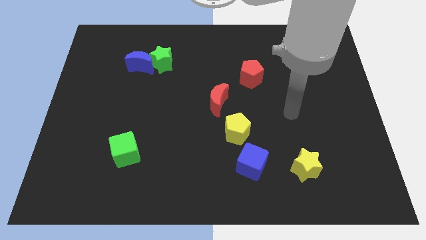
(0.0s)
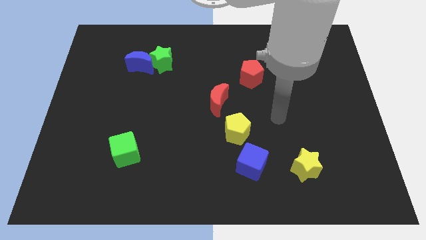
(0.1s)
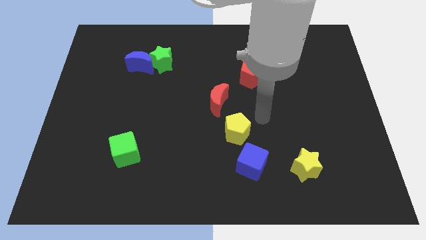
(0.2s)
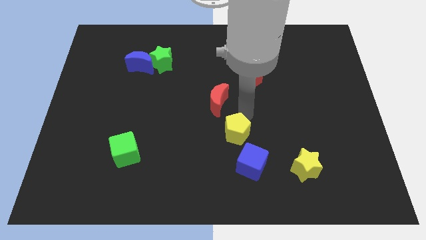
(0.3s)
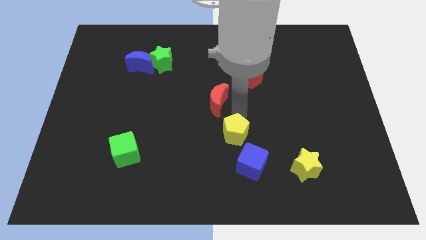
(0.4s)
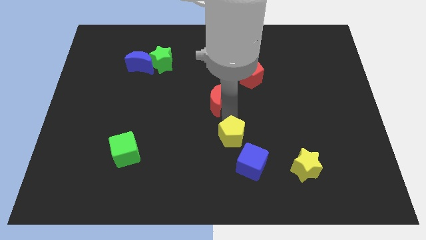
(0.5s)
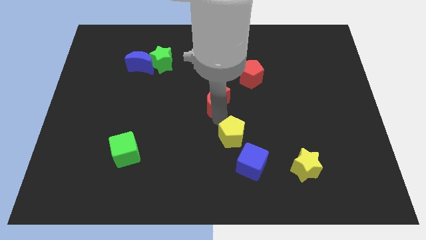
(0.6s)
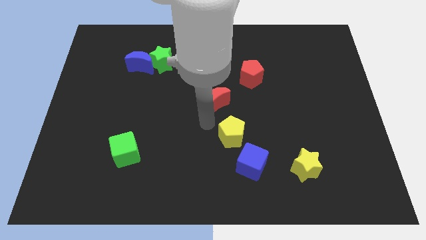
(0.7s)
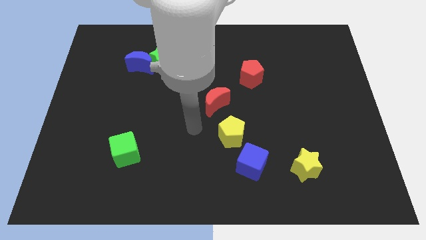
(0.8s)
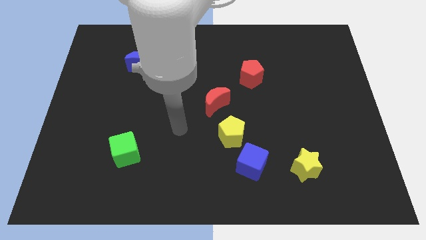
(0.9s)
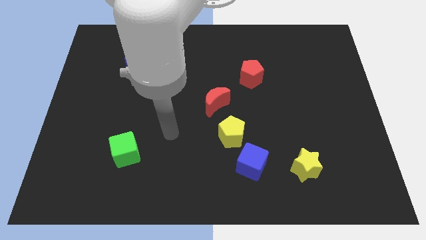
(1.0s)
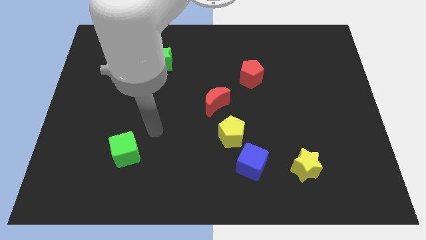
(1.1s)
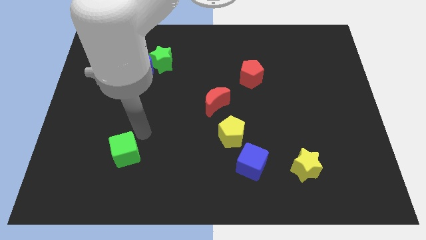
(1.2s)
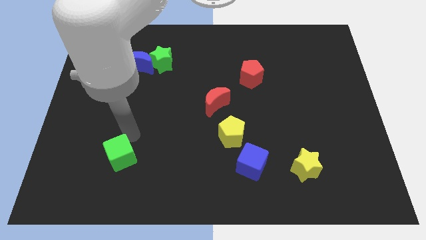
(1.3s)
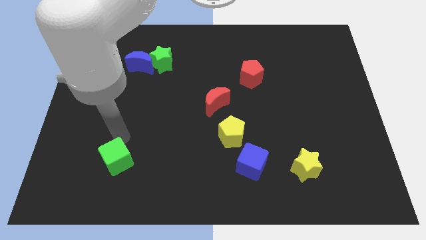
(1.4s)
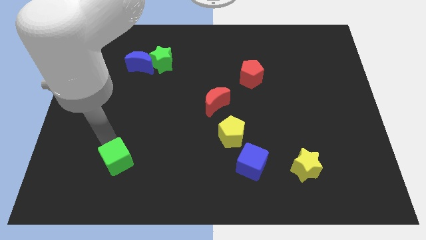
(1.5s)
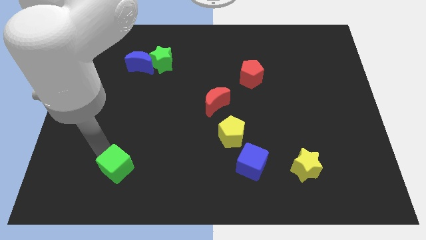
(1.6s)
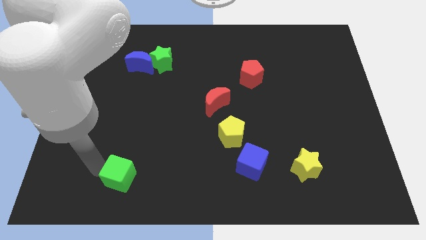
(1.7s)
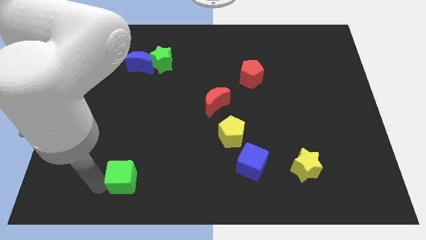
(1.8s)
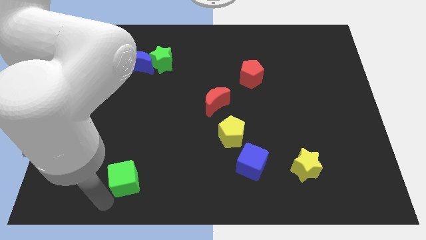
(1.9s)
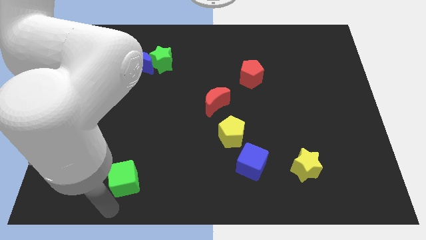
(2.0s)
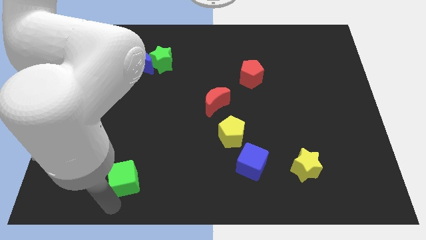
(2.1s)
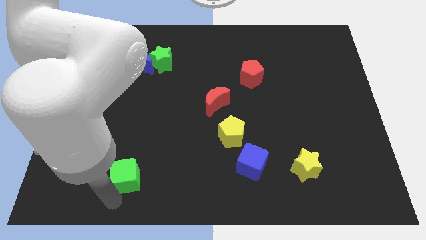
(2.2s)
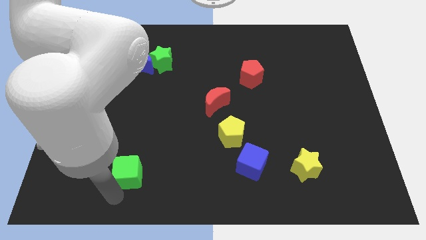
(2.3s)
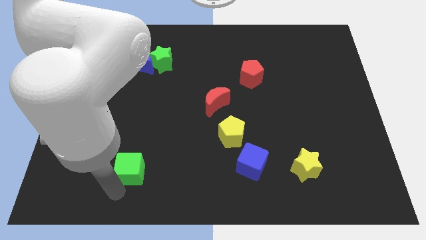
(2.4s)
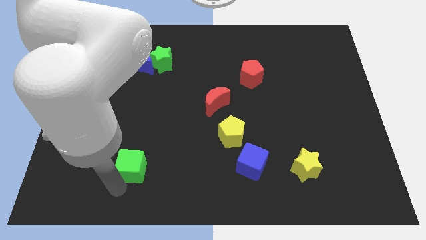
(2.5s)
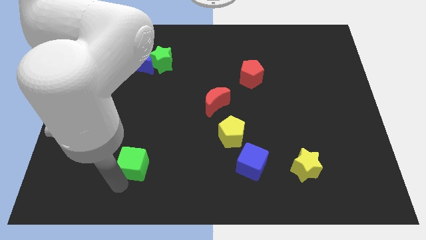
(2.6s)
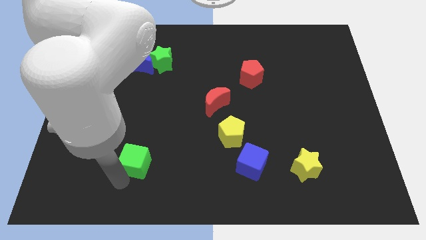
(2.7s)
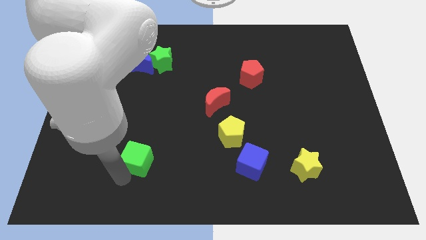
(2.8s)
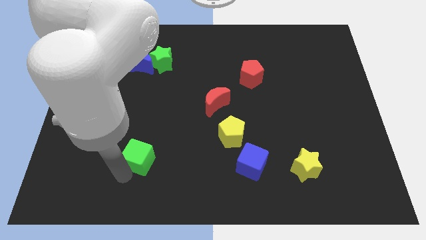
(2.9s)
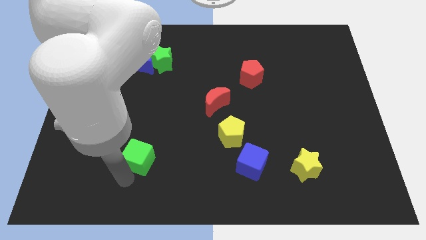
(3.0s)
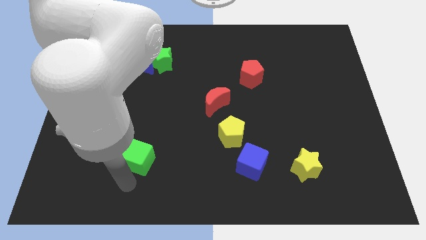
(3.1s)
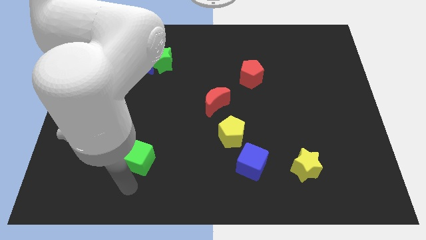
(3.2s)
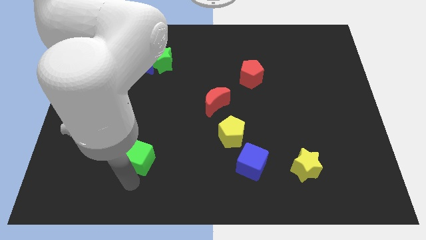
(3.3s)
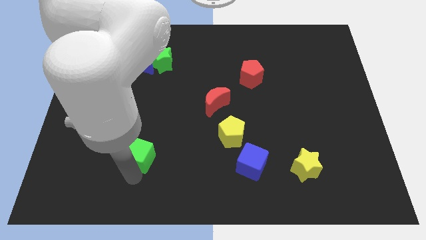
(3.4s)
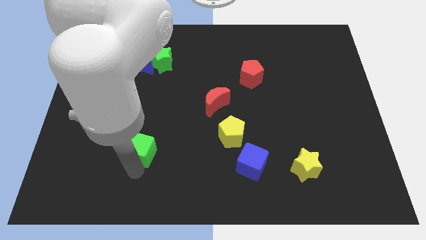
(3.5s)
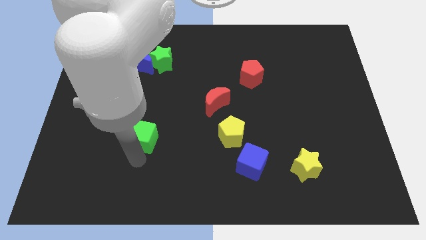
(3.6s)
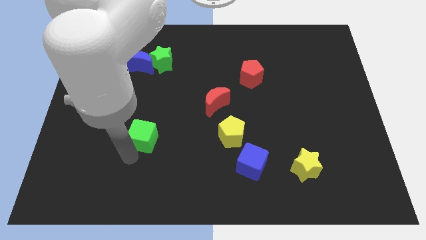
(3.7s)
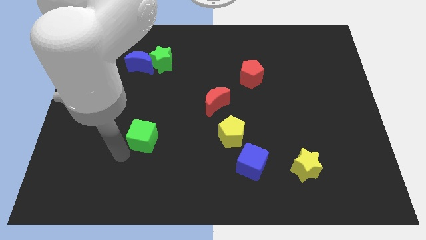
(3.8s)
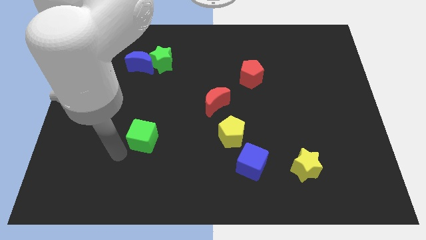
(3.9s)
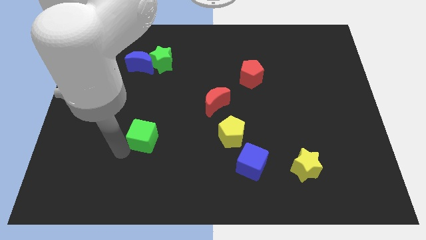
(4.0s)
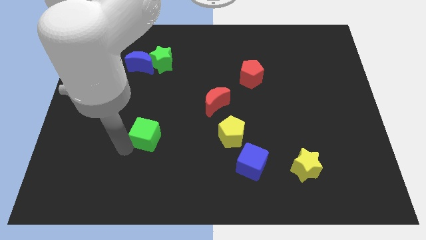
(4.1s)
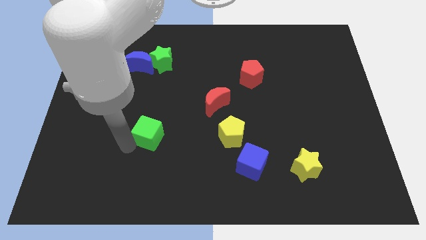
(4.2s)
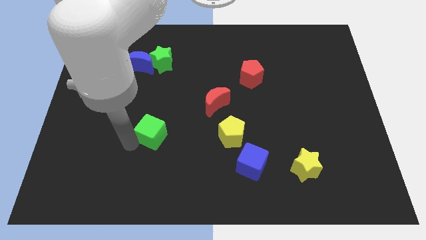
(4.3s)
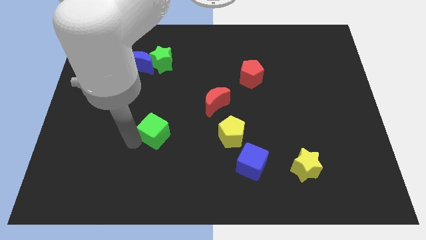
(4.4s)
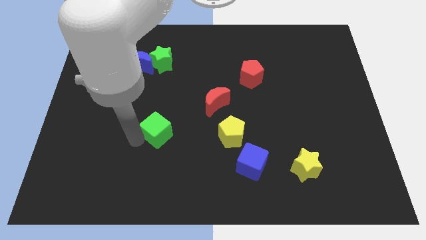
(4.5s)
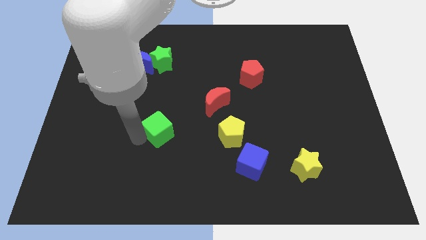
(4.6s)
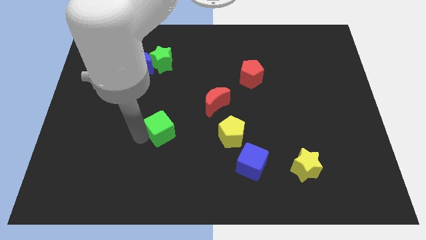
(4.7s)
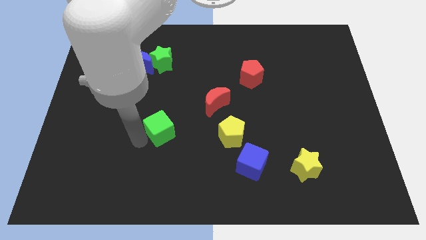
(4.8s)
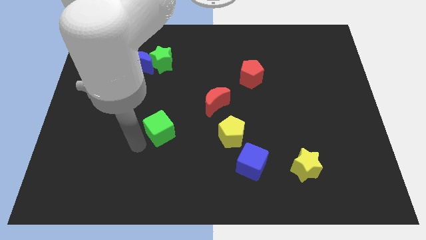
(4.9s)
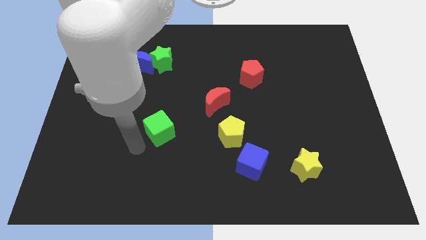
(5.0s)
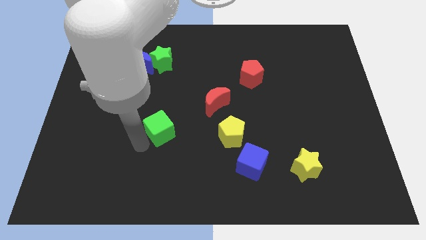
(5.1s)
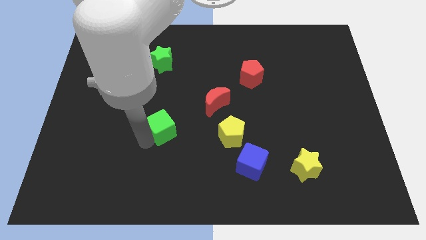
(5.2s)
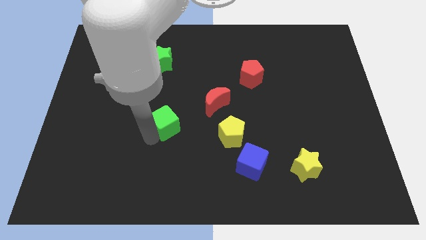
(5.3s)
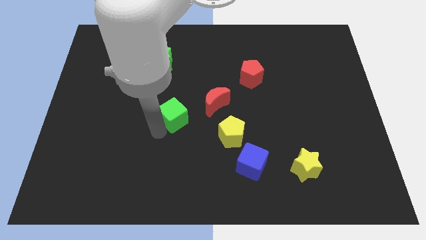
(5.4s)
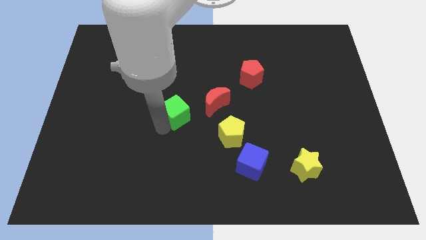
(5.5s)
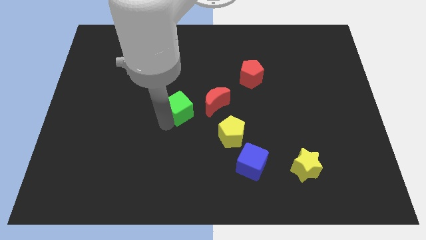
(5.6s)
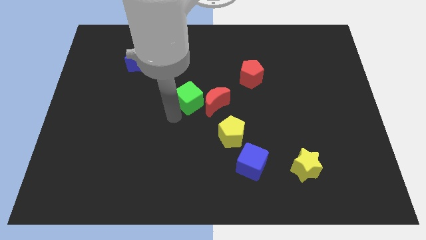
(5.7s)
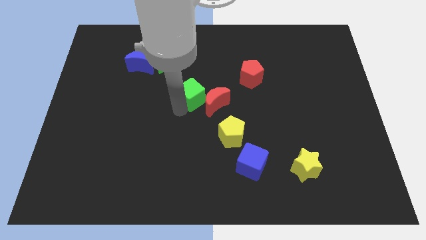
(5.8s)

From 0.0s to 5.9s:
move the green cube upwards and then to the right

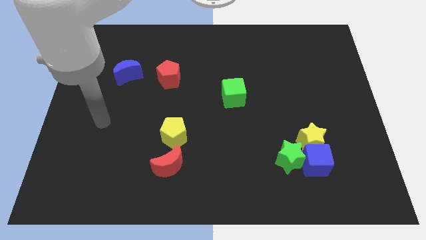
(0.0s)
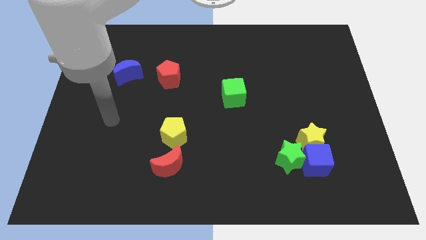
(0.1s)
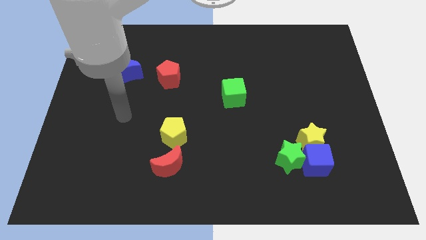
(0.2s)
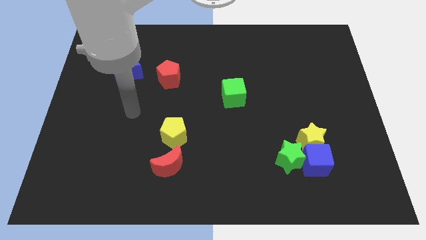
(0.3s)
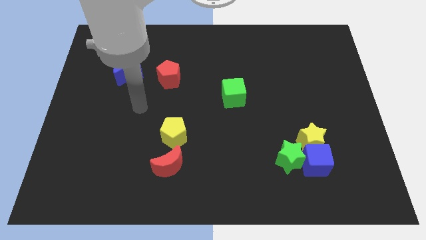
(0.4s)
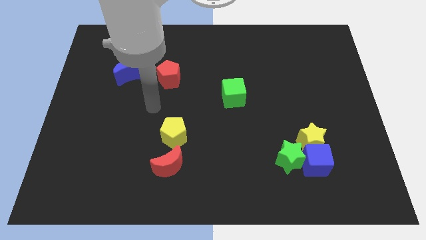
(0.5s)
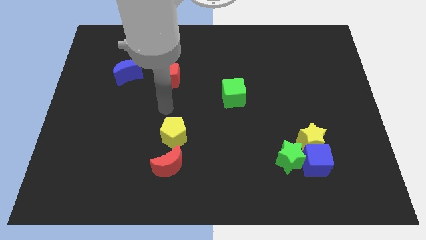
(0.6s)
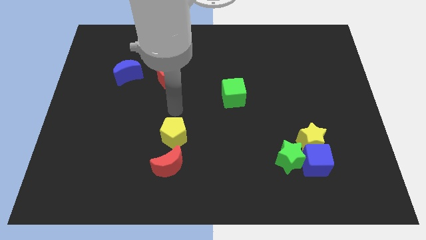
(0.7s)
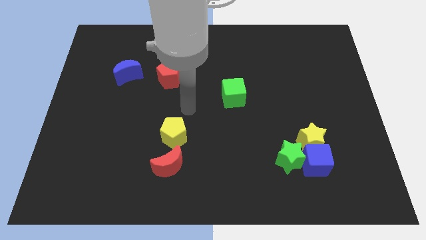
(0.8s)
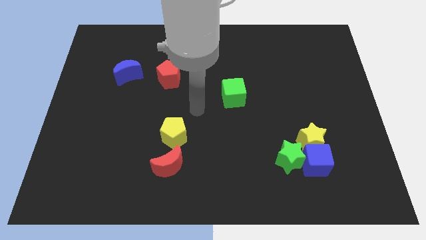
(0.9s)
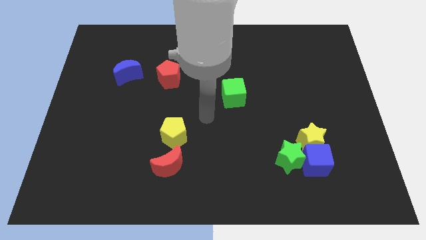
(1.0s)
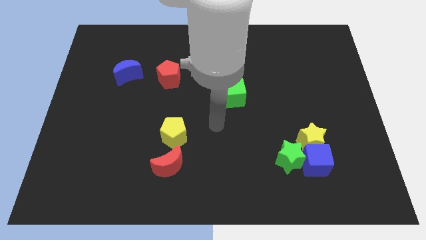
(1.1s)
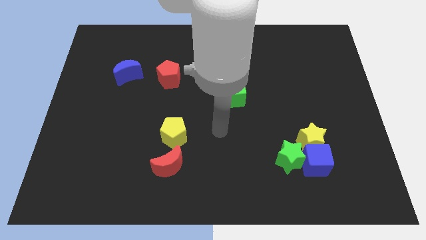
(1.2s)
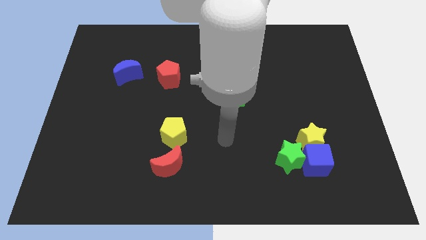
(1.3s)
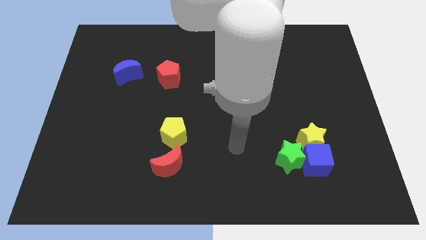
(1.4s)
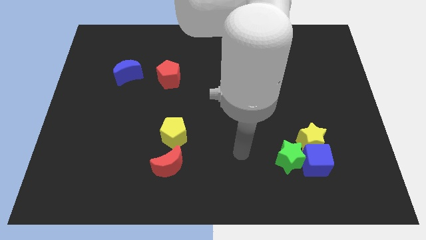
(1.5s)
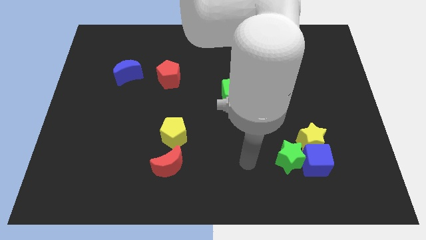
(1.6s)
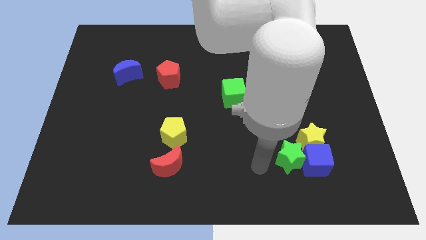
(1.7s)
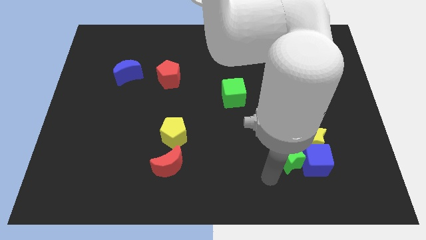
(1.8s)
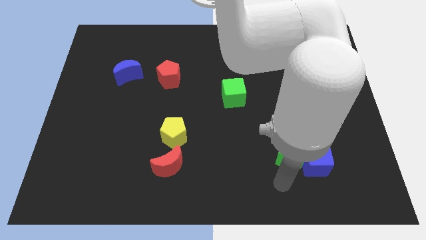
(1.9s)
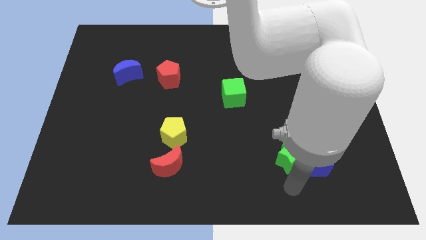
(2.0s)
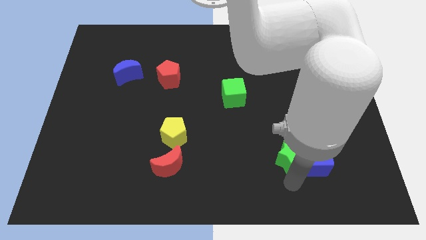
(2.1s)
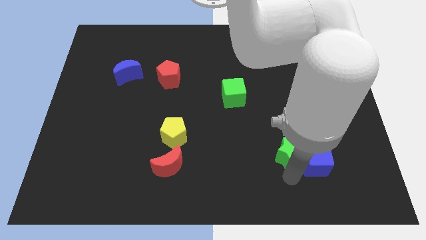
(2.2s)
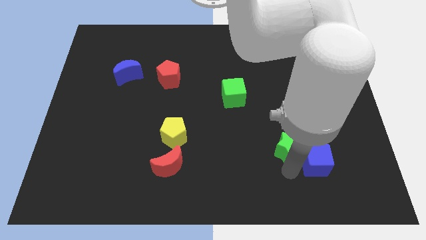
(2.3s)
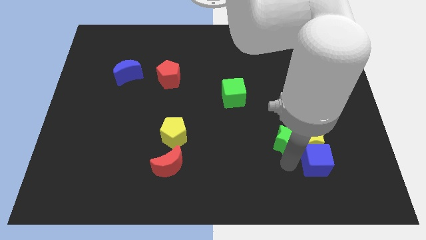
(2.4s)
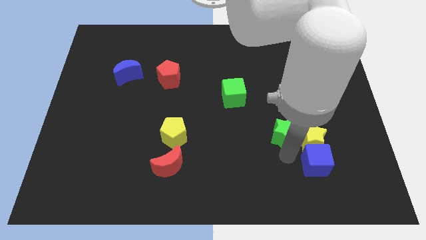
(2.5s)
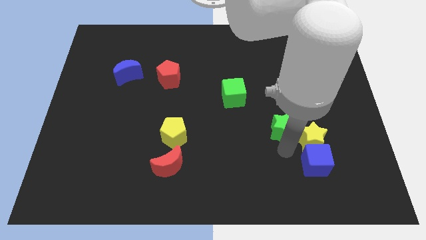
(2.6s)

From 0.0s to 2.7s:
slightly slide the green star upwards
